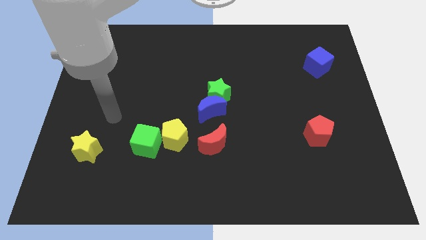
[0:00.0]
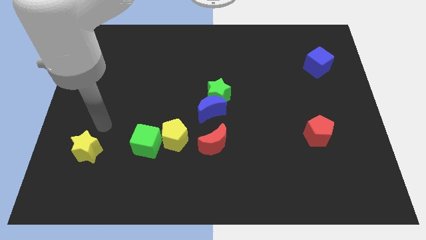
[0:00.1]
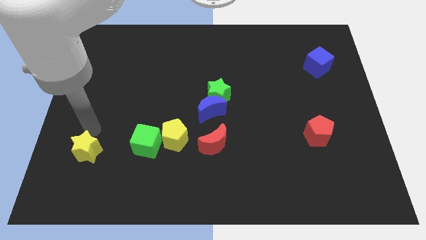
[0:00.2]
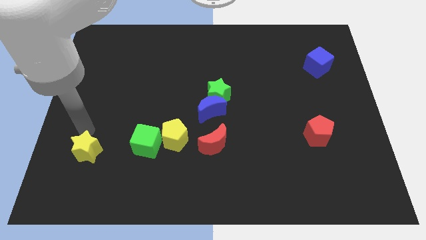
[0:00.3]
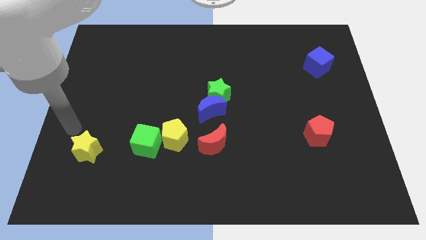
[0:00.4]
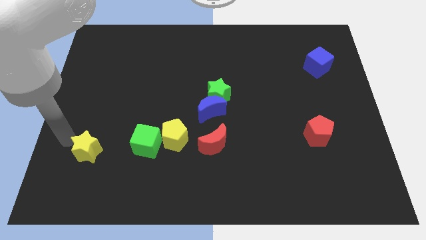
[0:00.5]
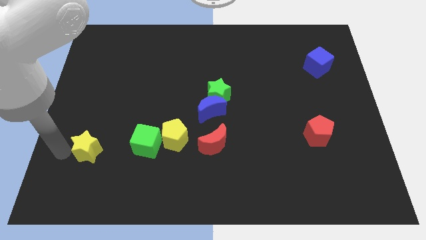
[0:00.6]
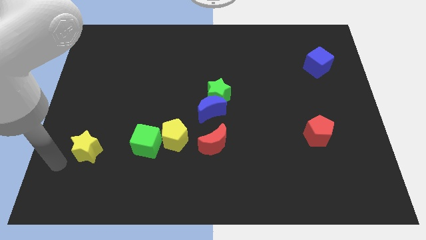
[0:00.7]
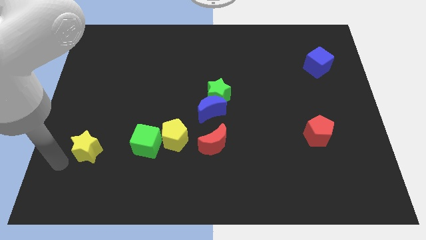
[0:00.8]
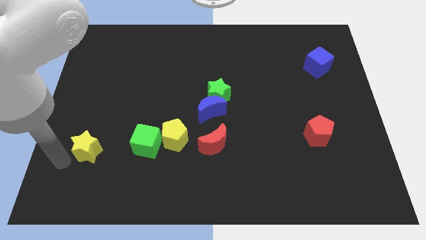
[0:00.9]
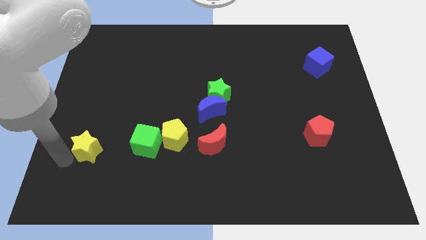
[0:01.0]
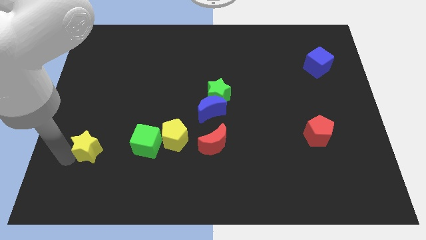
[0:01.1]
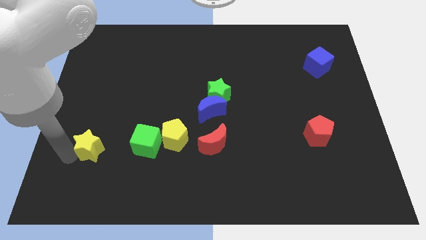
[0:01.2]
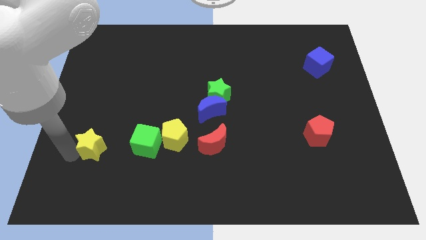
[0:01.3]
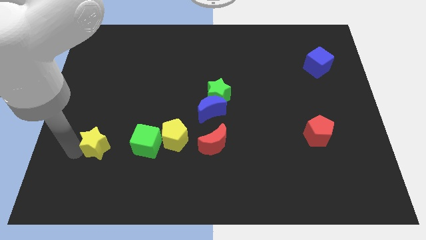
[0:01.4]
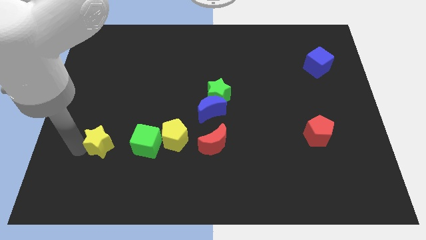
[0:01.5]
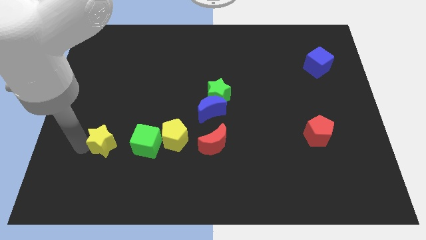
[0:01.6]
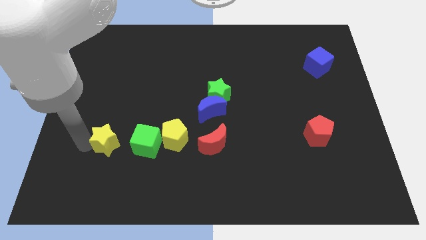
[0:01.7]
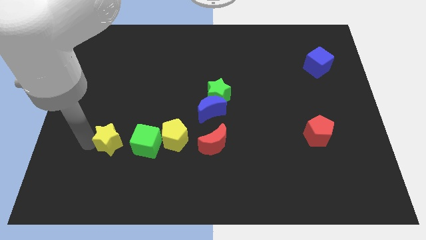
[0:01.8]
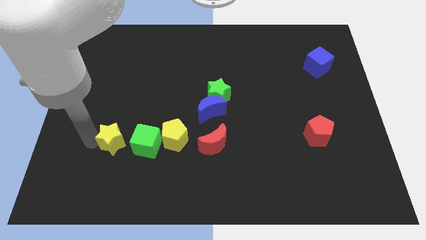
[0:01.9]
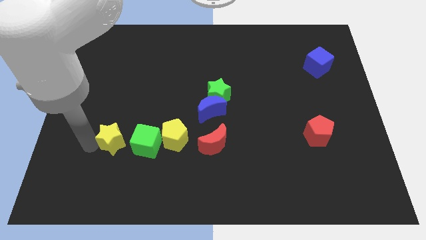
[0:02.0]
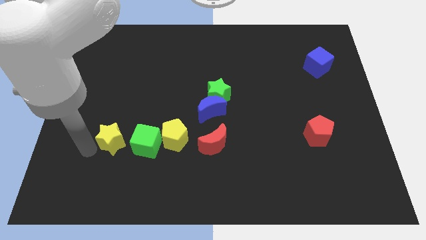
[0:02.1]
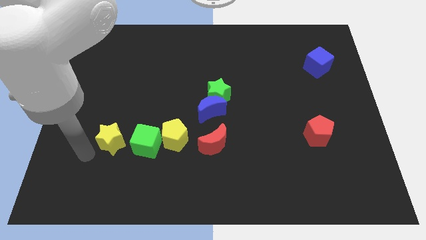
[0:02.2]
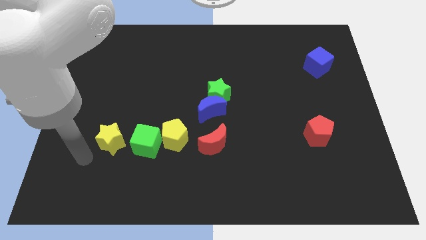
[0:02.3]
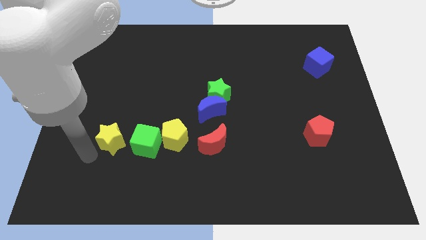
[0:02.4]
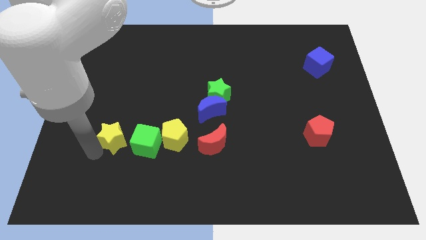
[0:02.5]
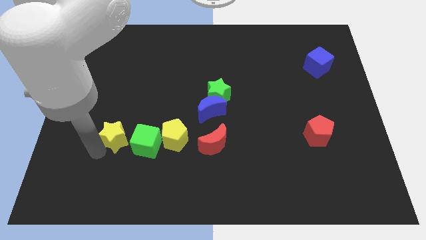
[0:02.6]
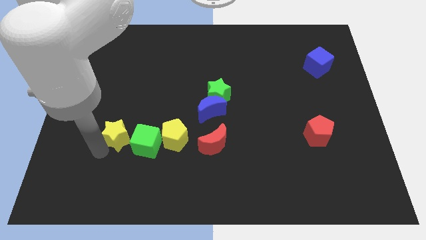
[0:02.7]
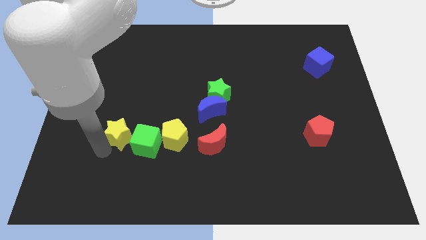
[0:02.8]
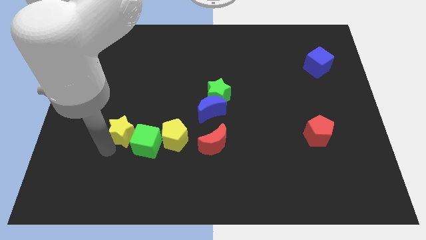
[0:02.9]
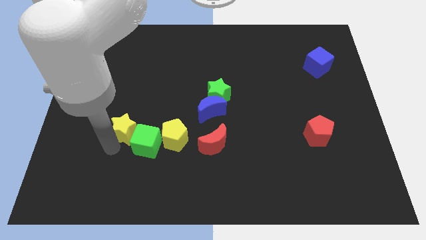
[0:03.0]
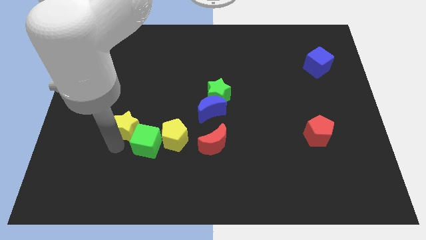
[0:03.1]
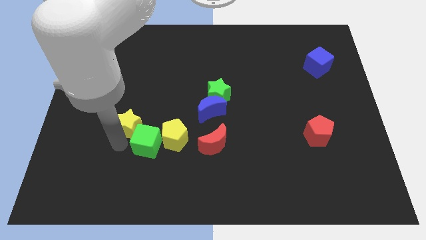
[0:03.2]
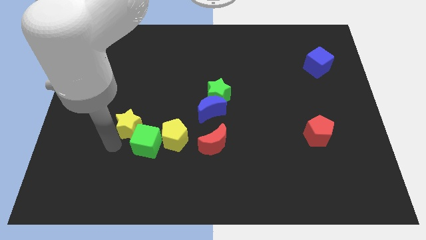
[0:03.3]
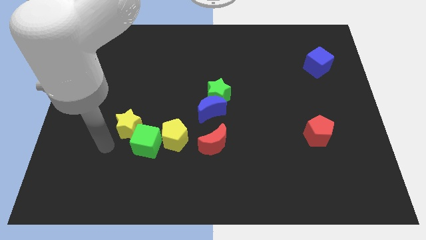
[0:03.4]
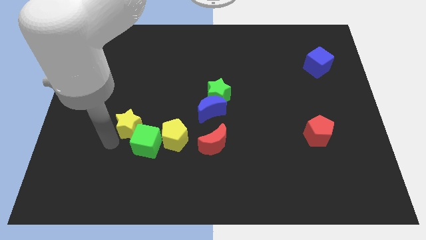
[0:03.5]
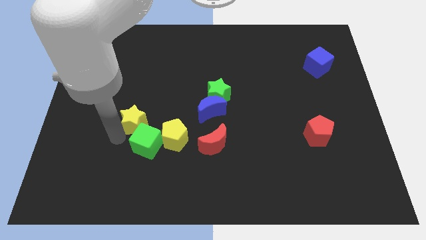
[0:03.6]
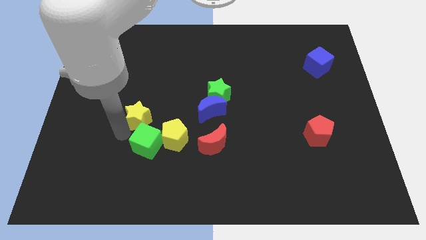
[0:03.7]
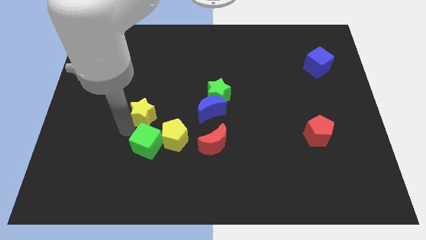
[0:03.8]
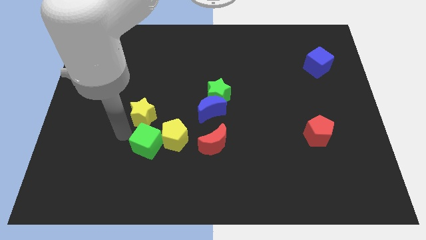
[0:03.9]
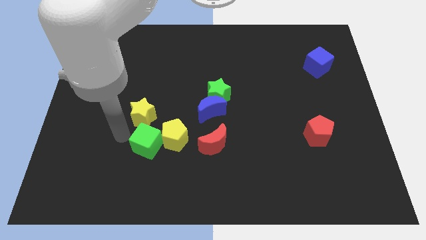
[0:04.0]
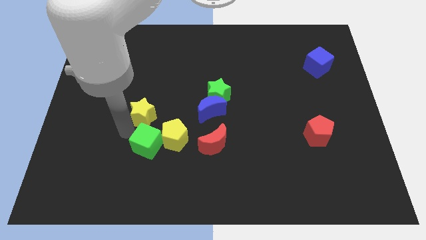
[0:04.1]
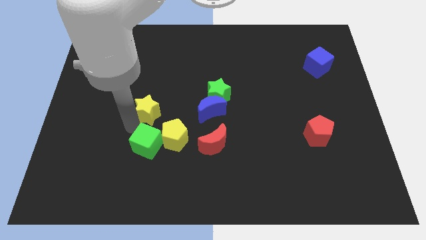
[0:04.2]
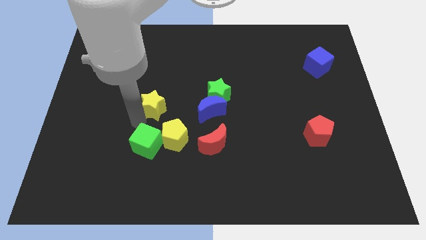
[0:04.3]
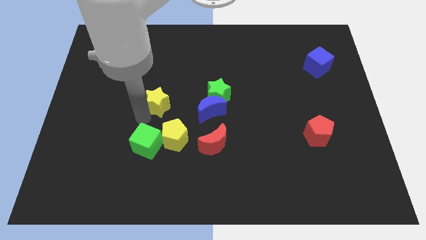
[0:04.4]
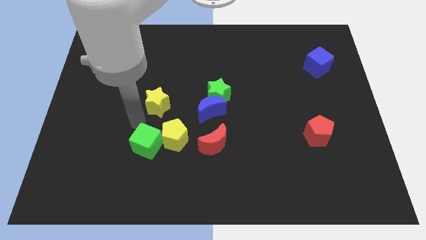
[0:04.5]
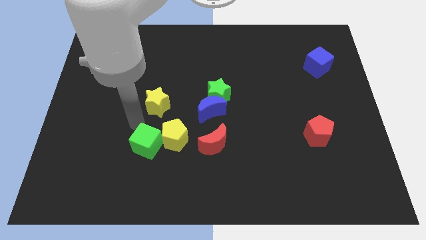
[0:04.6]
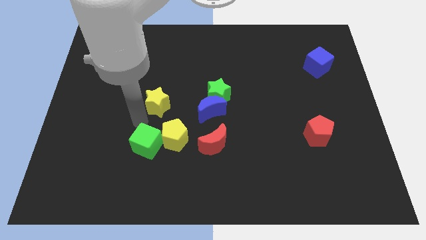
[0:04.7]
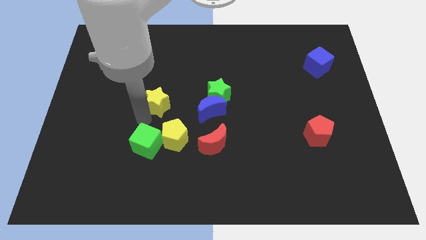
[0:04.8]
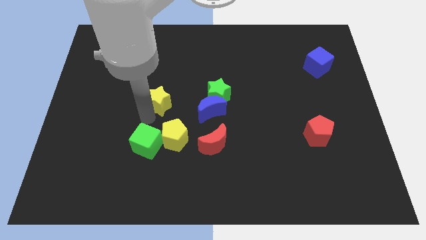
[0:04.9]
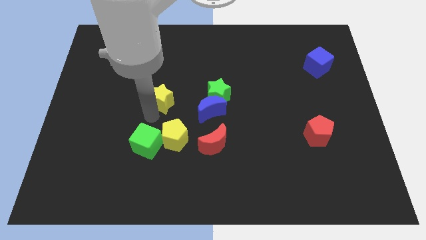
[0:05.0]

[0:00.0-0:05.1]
move the yellow star up and then right

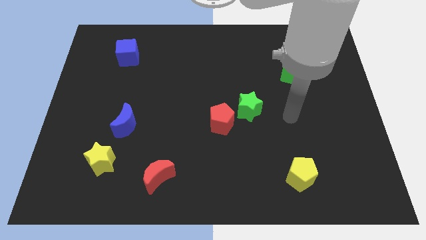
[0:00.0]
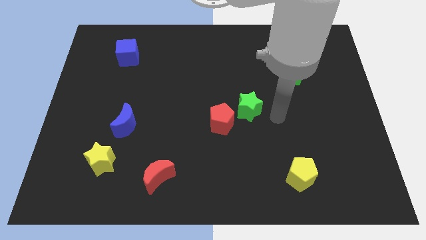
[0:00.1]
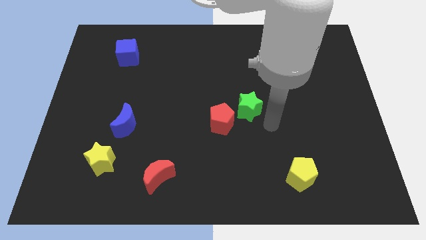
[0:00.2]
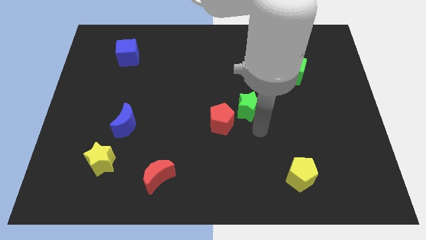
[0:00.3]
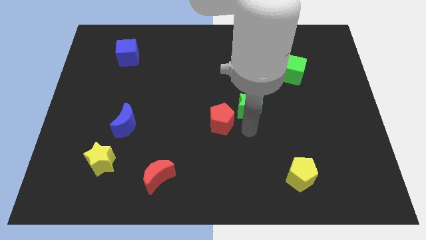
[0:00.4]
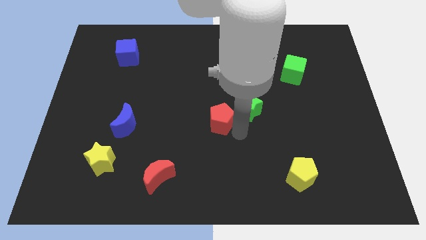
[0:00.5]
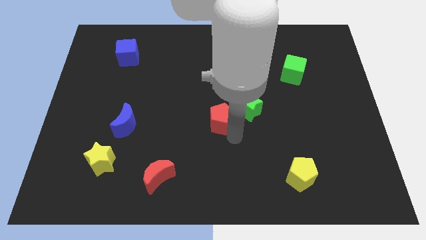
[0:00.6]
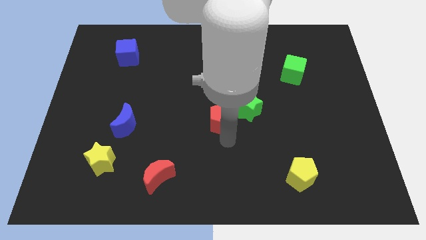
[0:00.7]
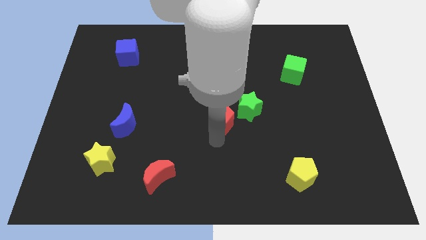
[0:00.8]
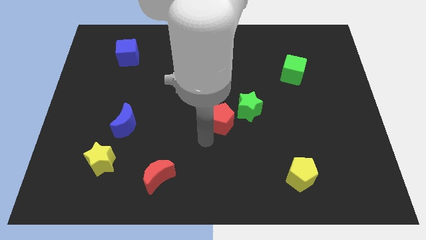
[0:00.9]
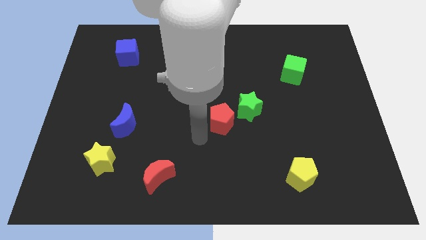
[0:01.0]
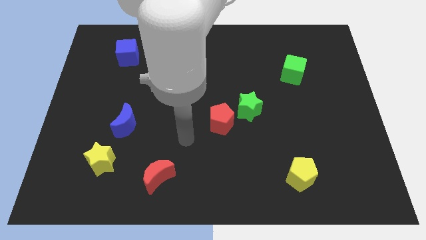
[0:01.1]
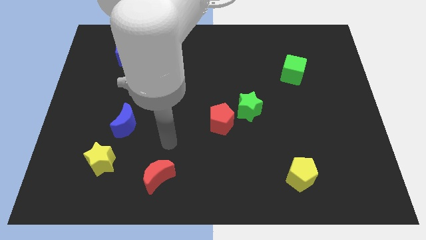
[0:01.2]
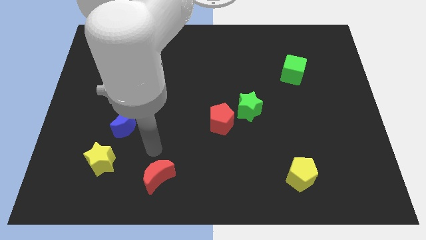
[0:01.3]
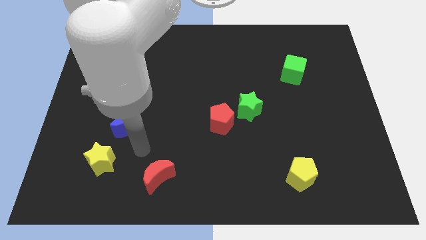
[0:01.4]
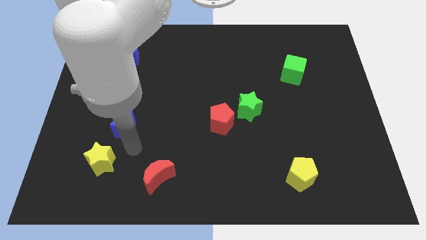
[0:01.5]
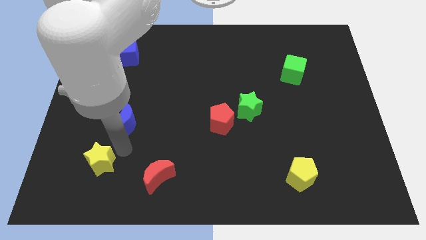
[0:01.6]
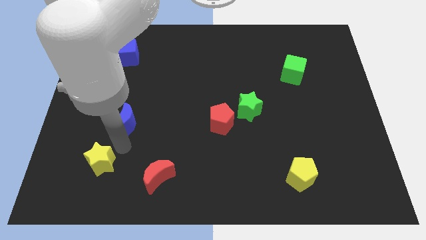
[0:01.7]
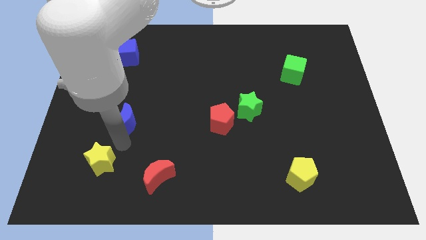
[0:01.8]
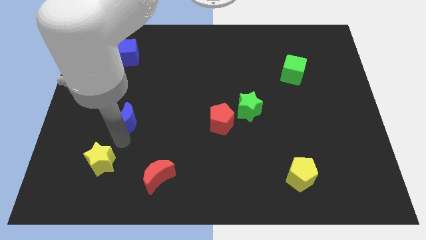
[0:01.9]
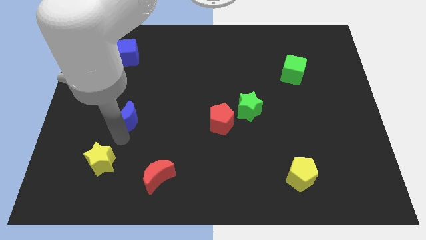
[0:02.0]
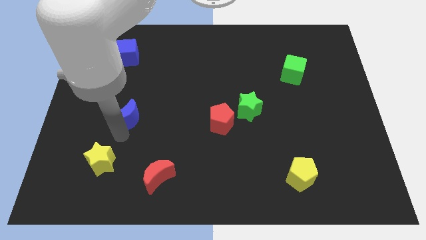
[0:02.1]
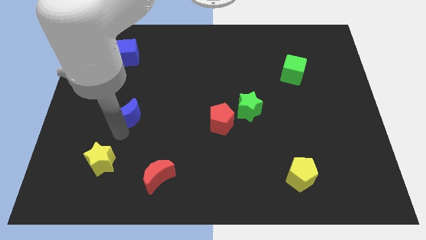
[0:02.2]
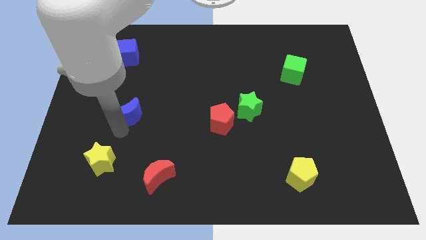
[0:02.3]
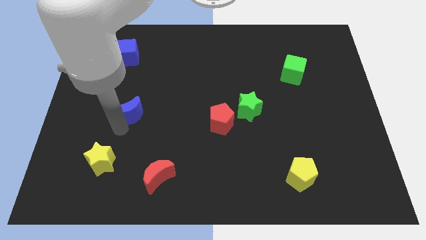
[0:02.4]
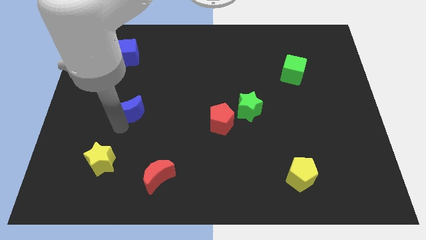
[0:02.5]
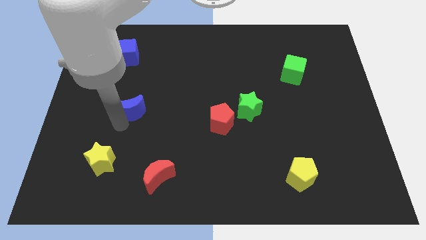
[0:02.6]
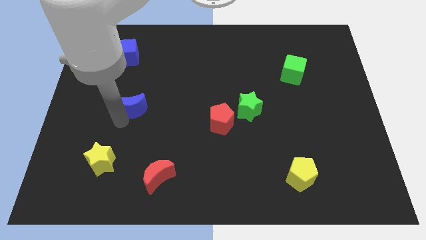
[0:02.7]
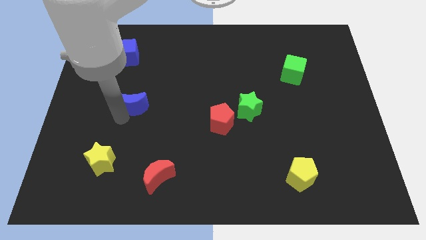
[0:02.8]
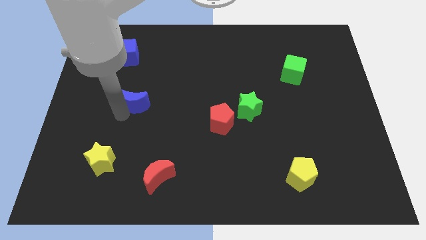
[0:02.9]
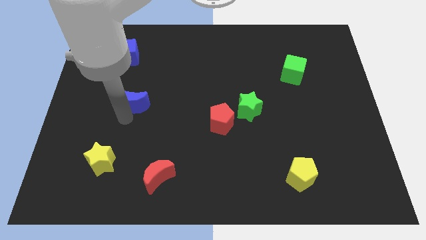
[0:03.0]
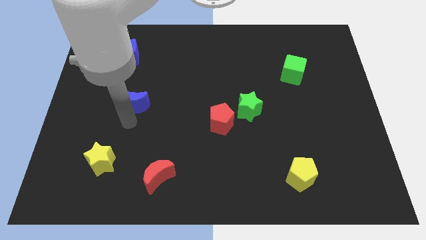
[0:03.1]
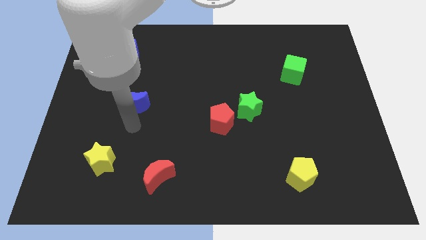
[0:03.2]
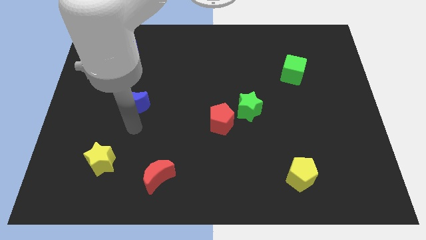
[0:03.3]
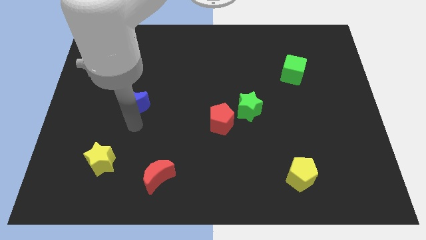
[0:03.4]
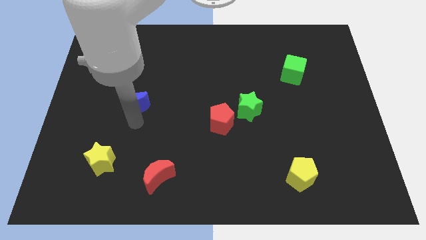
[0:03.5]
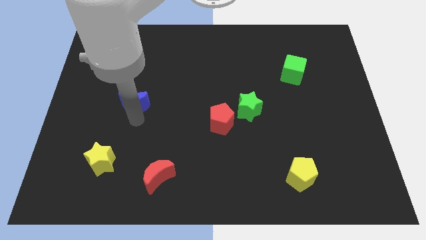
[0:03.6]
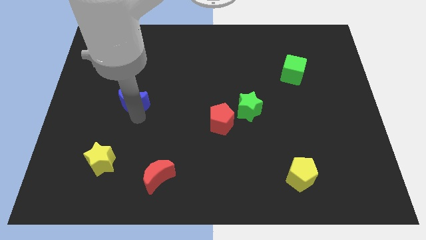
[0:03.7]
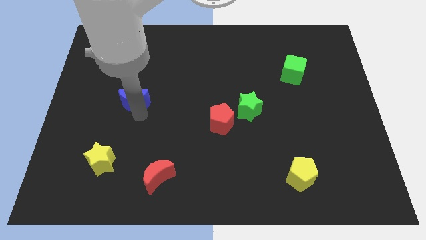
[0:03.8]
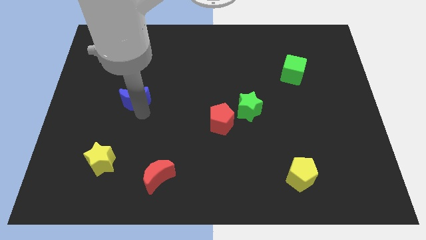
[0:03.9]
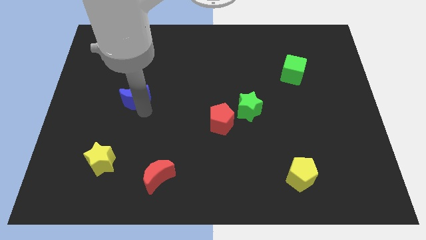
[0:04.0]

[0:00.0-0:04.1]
slightly move the blue moon upwards
